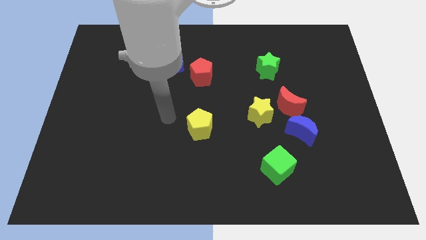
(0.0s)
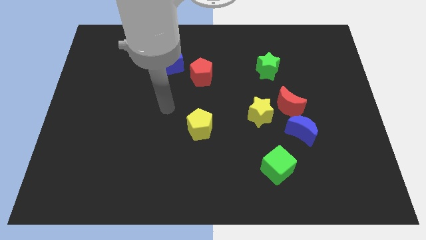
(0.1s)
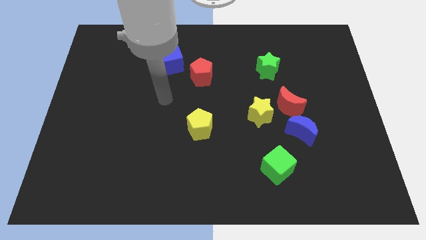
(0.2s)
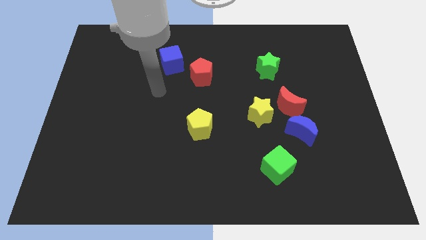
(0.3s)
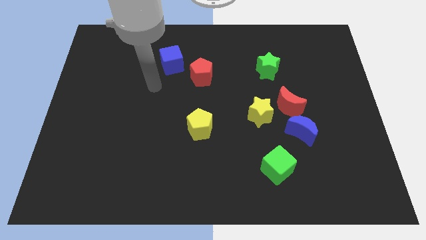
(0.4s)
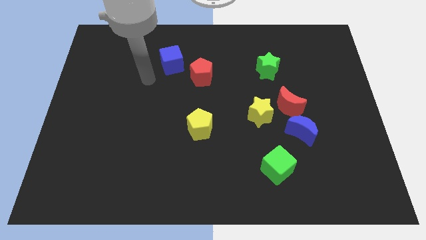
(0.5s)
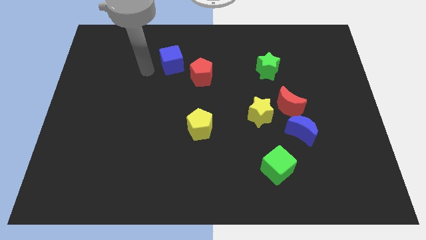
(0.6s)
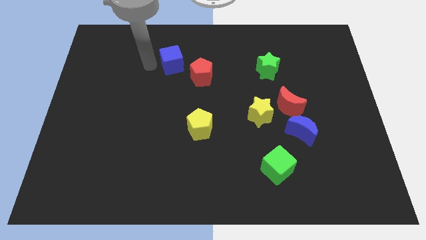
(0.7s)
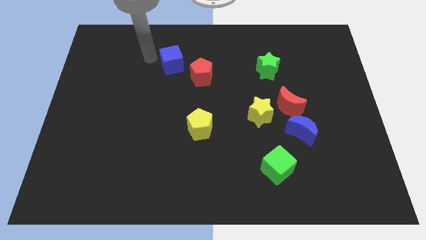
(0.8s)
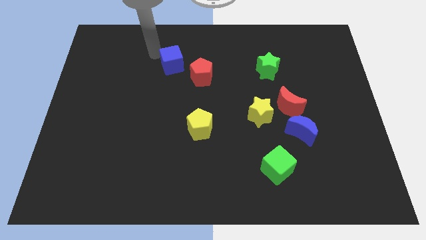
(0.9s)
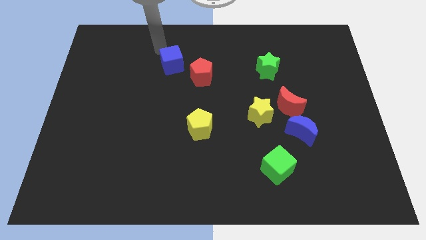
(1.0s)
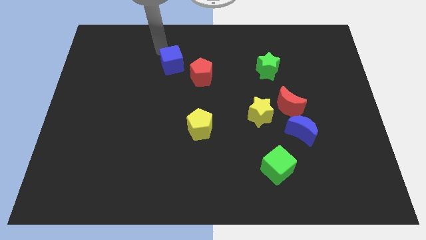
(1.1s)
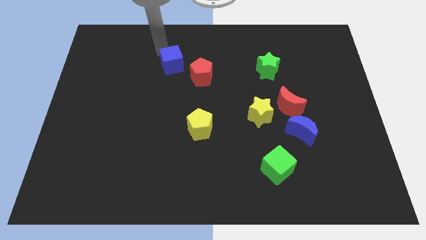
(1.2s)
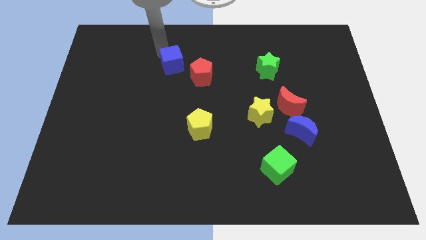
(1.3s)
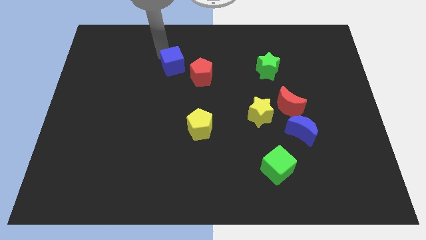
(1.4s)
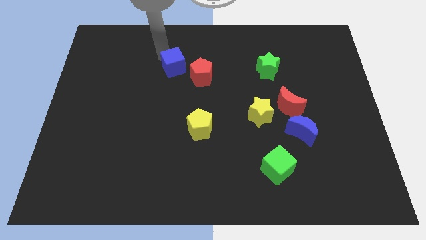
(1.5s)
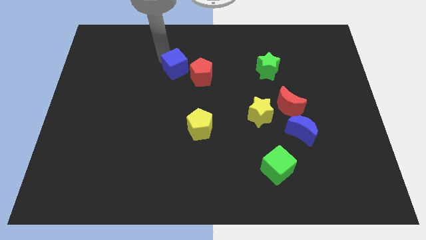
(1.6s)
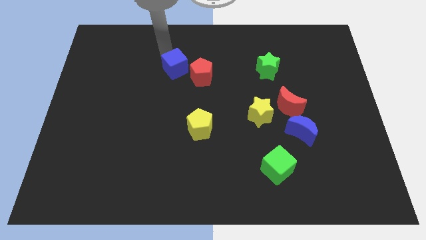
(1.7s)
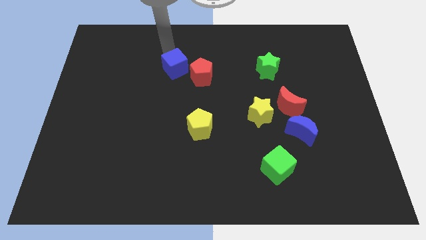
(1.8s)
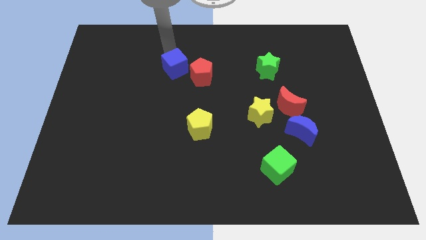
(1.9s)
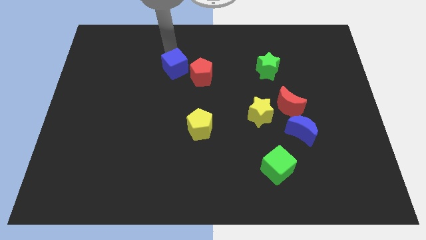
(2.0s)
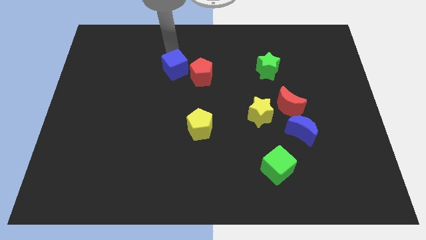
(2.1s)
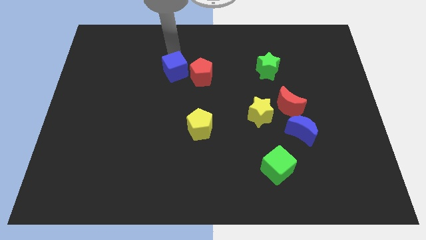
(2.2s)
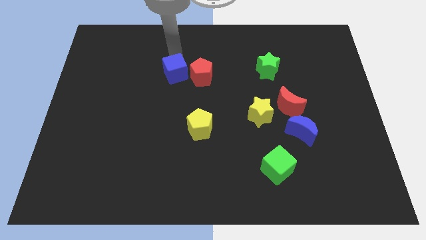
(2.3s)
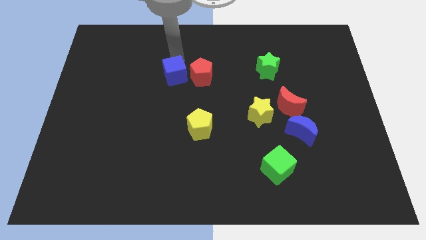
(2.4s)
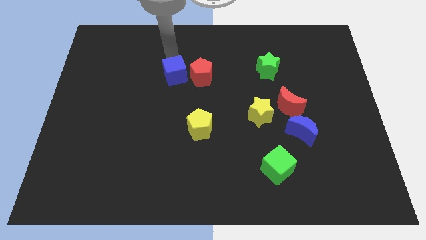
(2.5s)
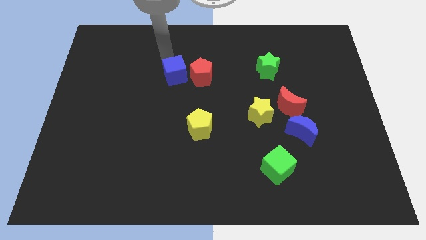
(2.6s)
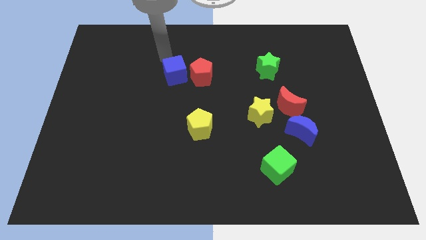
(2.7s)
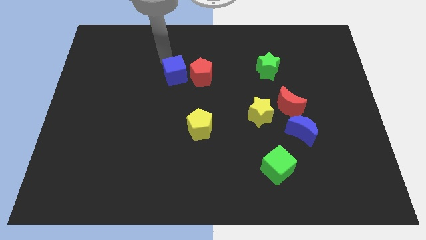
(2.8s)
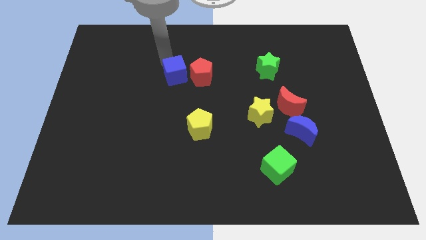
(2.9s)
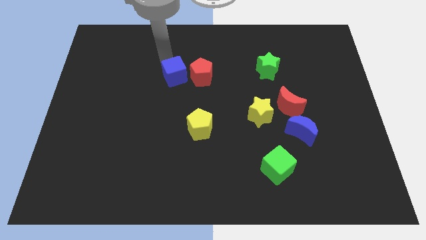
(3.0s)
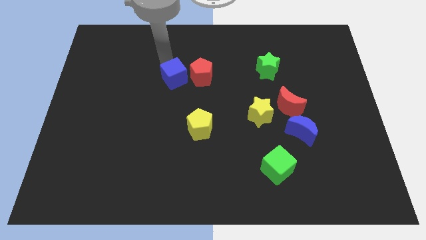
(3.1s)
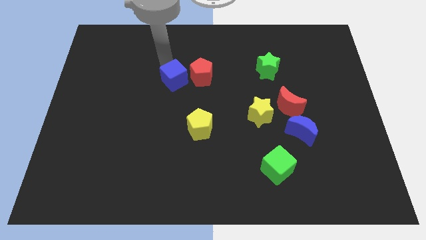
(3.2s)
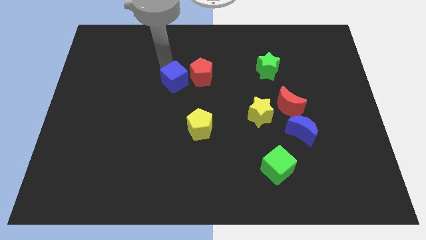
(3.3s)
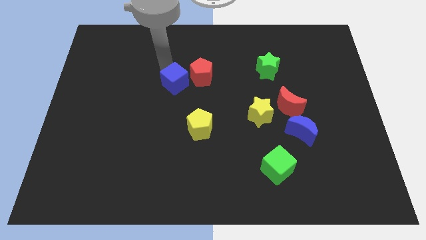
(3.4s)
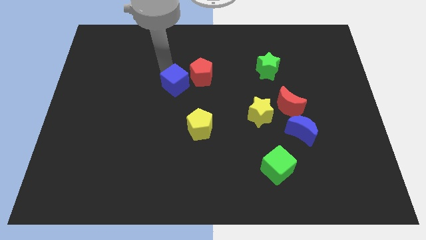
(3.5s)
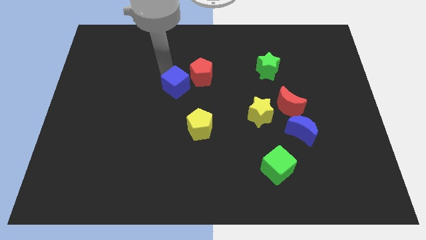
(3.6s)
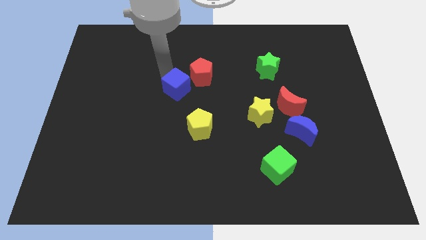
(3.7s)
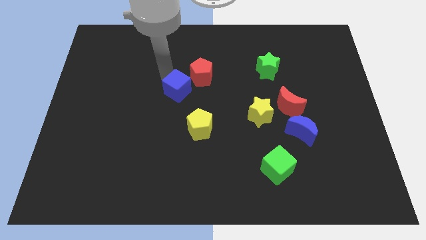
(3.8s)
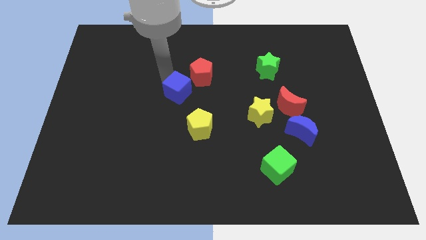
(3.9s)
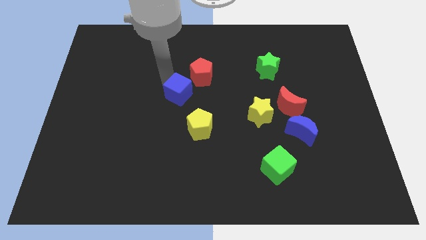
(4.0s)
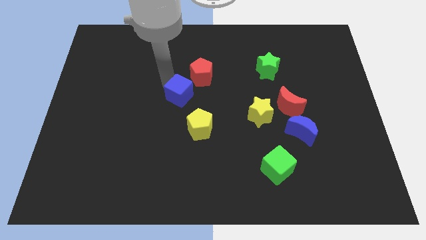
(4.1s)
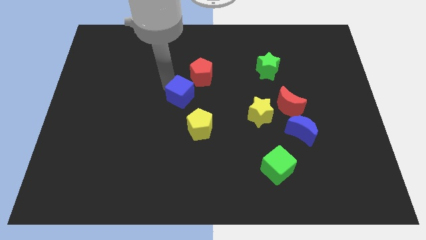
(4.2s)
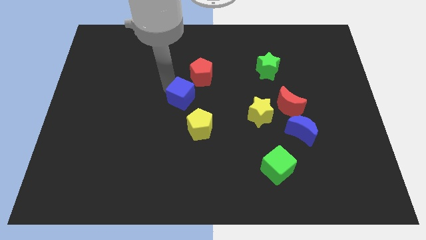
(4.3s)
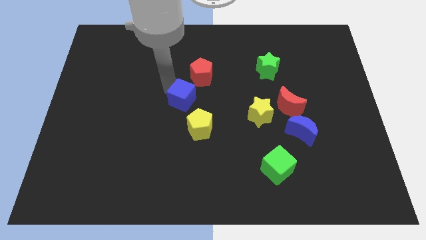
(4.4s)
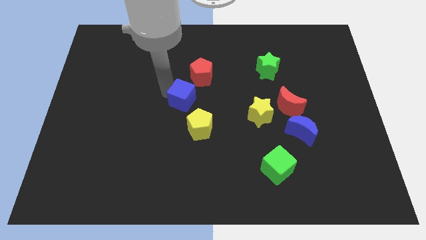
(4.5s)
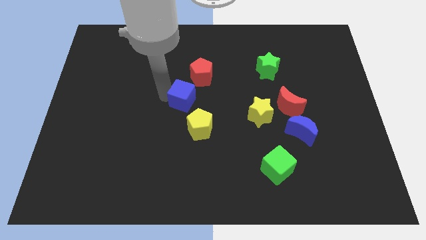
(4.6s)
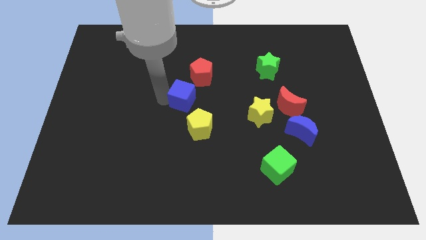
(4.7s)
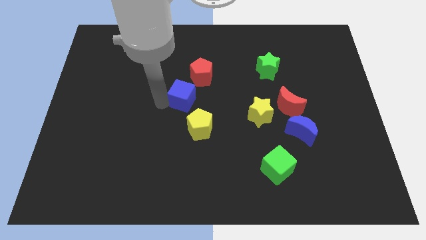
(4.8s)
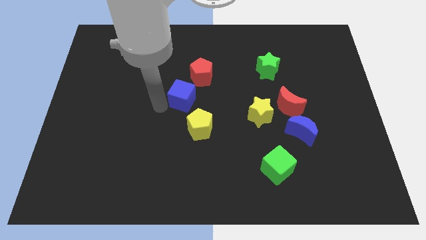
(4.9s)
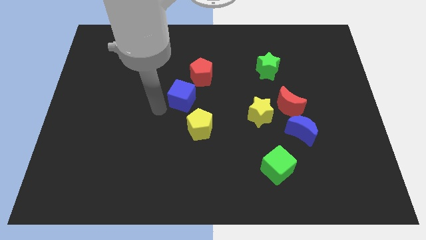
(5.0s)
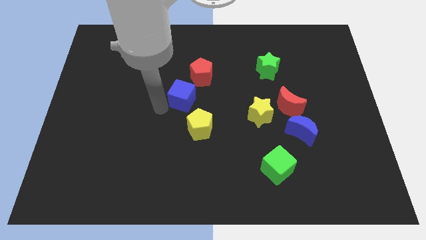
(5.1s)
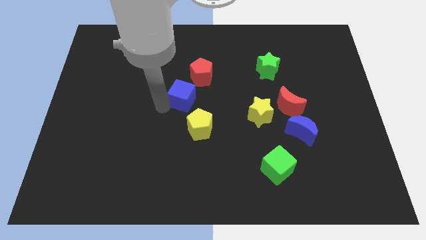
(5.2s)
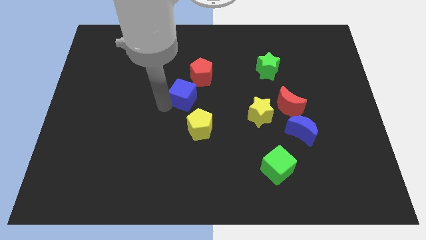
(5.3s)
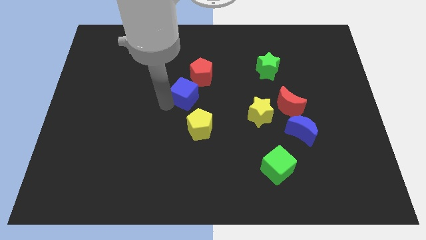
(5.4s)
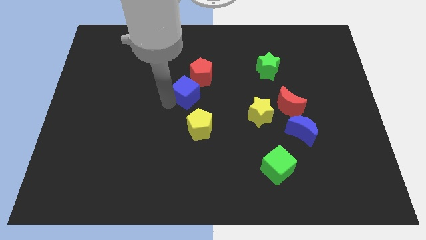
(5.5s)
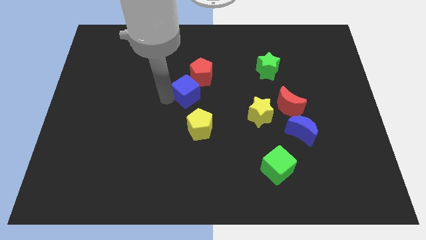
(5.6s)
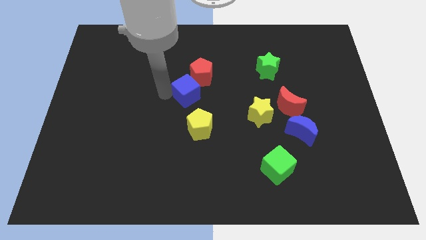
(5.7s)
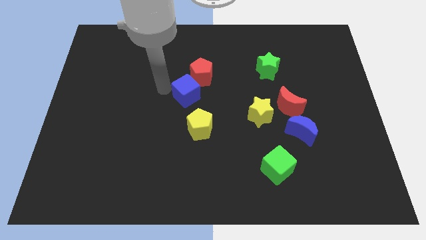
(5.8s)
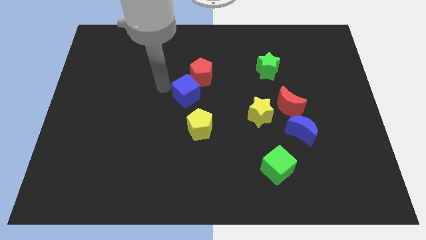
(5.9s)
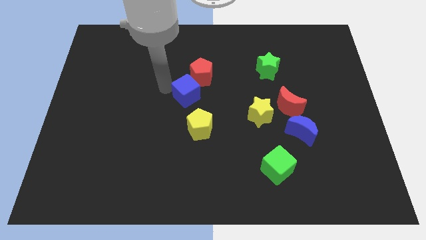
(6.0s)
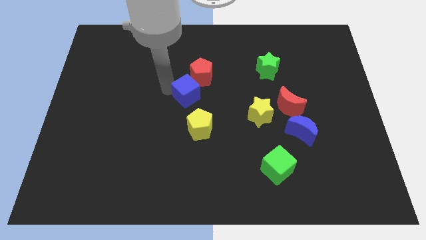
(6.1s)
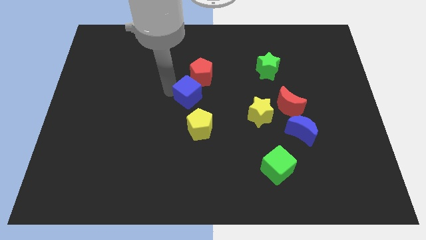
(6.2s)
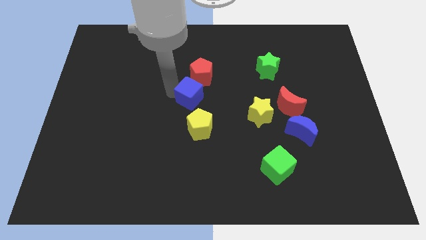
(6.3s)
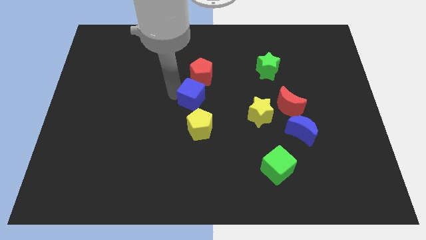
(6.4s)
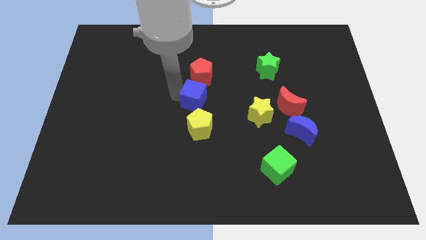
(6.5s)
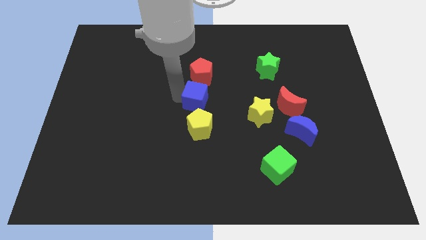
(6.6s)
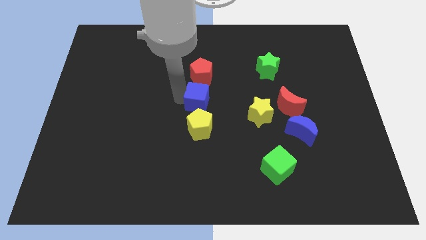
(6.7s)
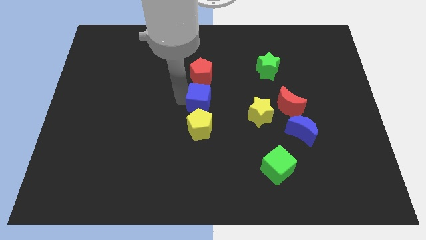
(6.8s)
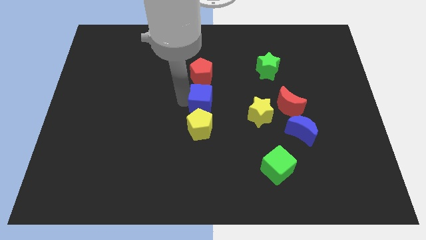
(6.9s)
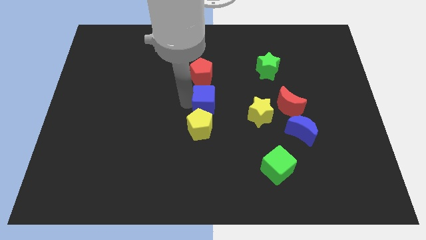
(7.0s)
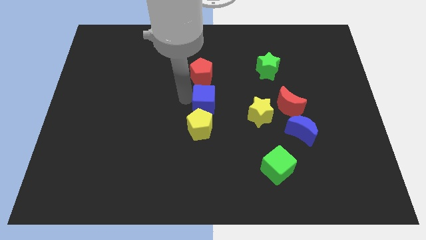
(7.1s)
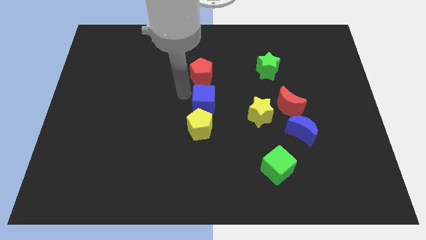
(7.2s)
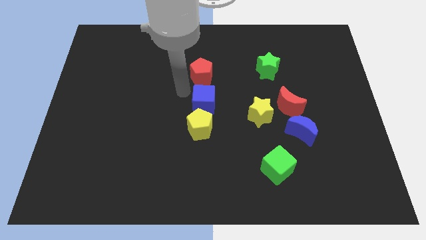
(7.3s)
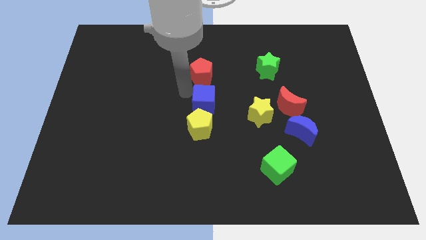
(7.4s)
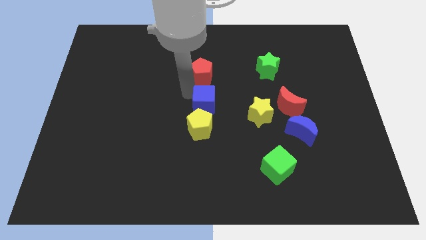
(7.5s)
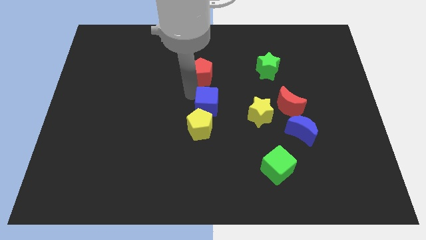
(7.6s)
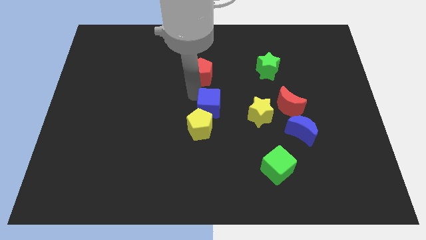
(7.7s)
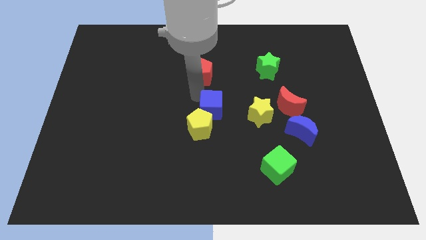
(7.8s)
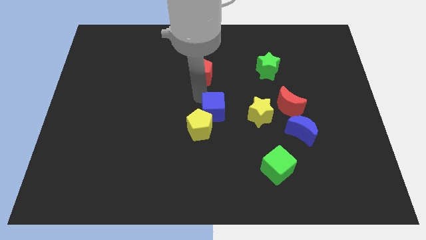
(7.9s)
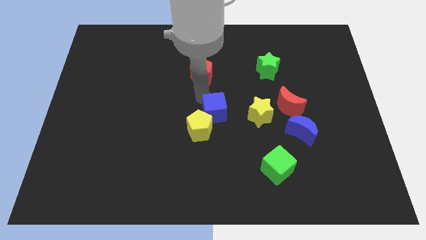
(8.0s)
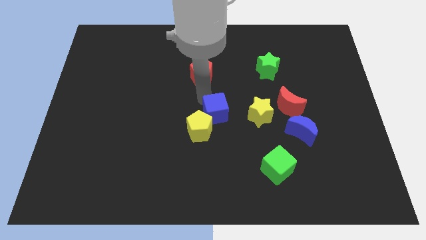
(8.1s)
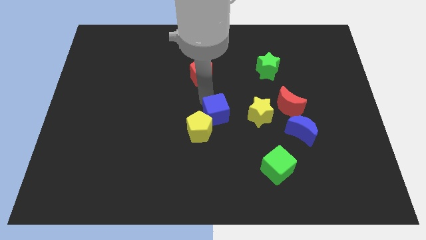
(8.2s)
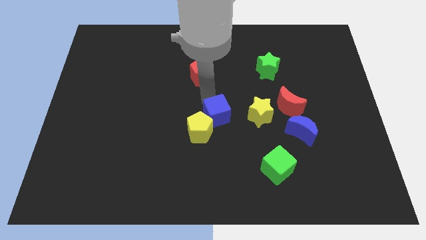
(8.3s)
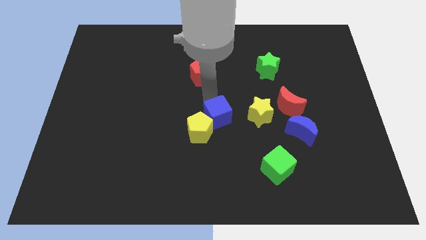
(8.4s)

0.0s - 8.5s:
move the blue cube downwards and to the right diagonally
